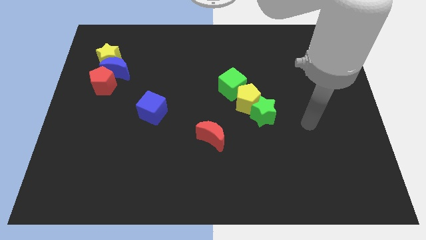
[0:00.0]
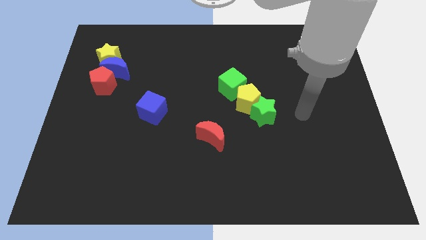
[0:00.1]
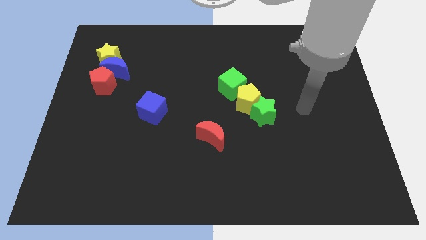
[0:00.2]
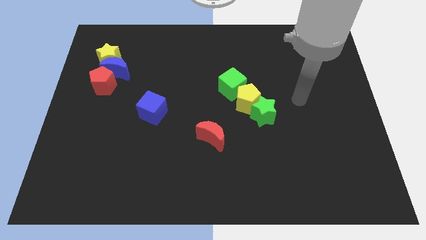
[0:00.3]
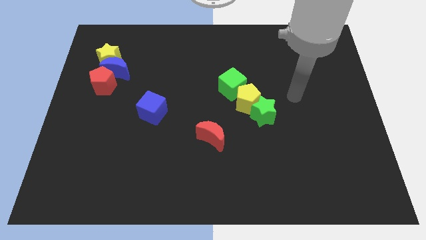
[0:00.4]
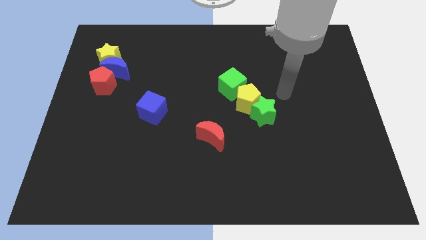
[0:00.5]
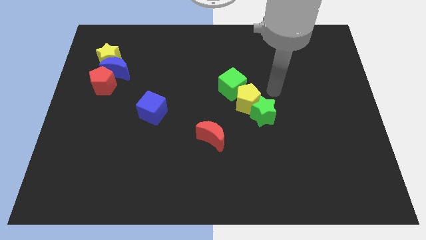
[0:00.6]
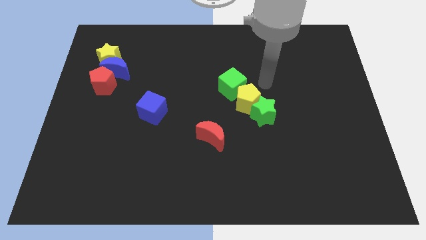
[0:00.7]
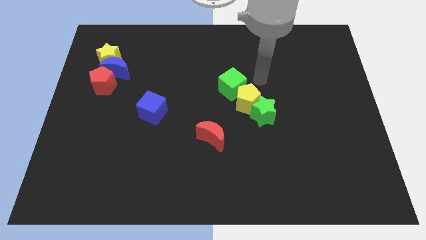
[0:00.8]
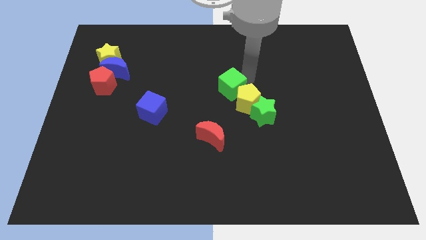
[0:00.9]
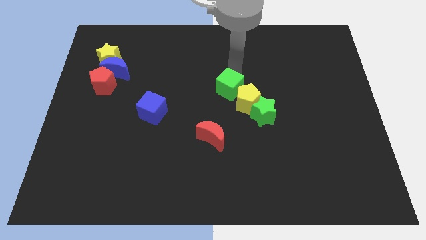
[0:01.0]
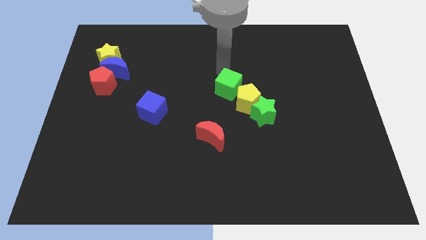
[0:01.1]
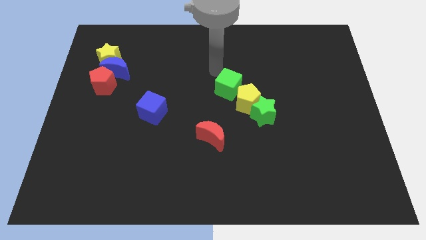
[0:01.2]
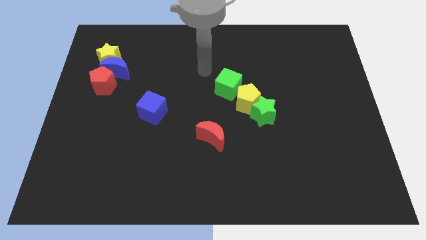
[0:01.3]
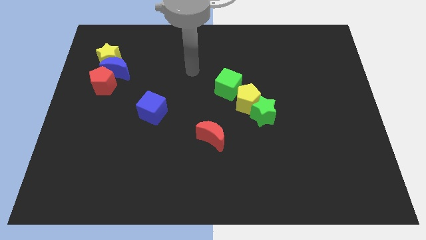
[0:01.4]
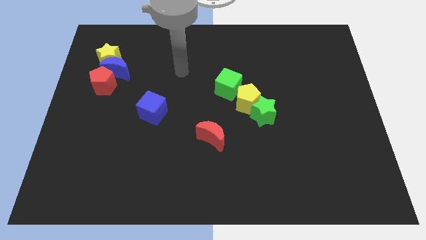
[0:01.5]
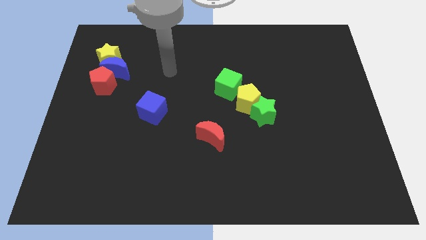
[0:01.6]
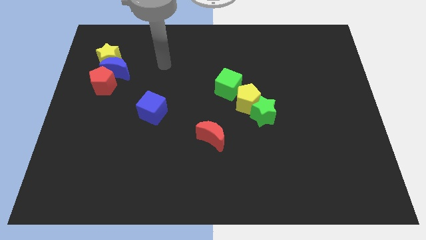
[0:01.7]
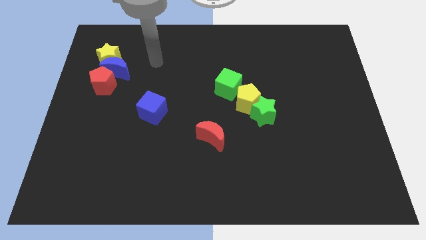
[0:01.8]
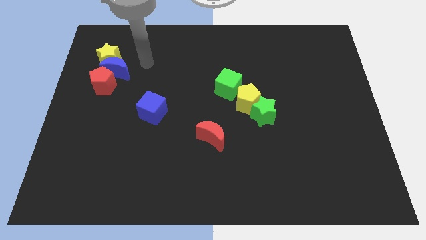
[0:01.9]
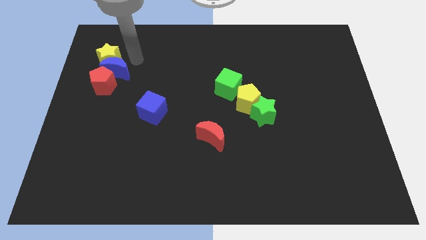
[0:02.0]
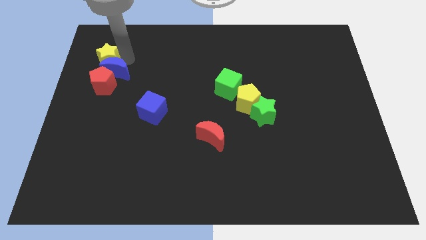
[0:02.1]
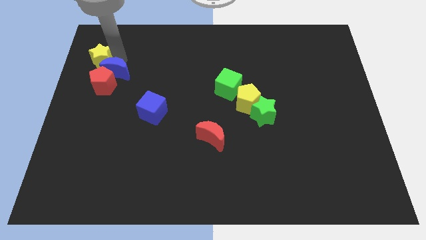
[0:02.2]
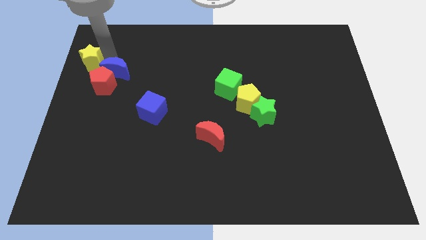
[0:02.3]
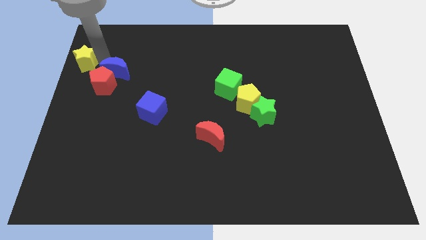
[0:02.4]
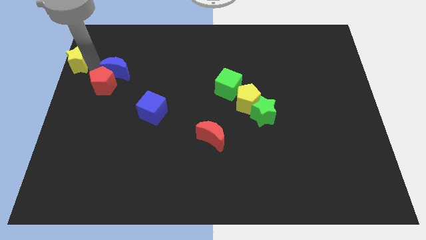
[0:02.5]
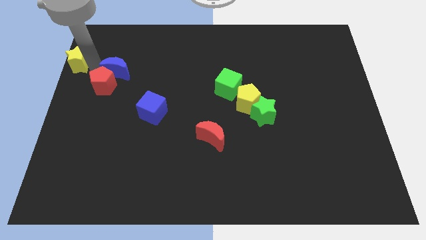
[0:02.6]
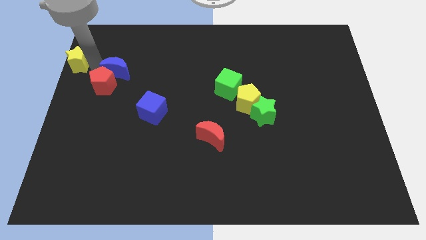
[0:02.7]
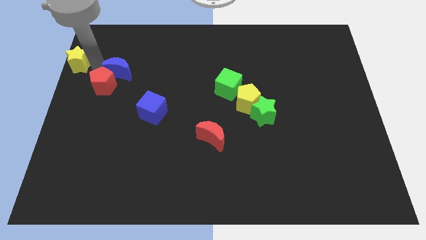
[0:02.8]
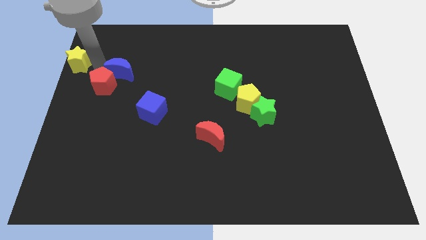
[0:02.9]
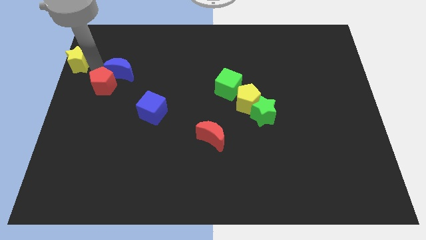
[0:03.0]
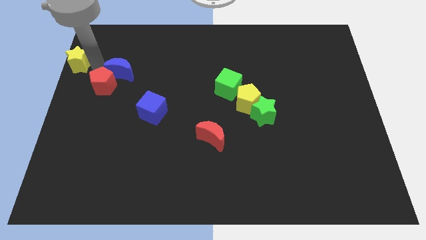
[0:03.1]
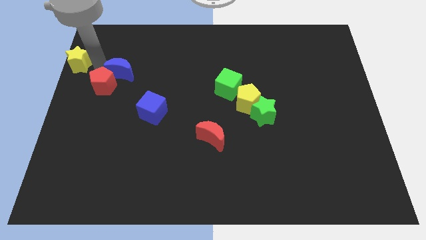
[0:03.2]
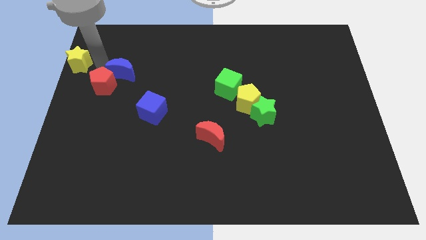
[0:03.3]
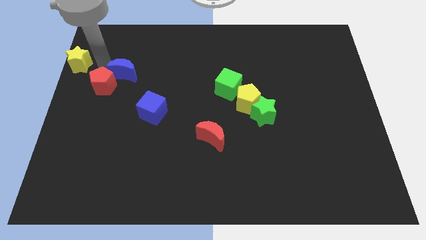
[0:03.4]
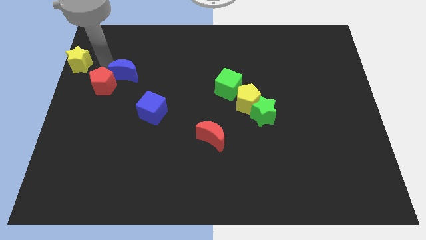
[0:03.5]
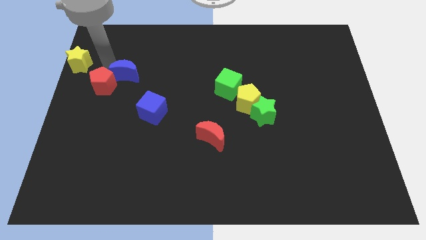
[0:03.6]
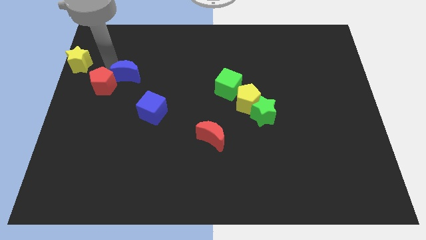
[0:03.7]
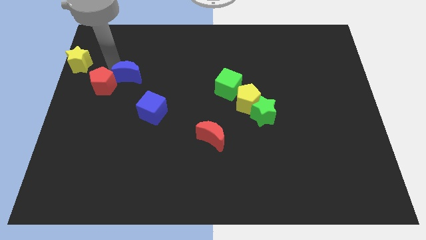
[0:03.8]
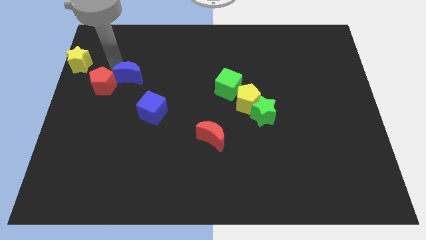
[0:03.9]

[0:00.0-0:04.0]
separate the blue moon from the yellow star and red pentagon

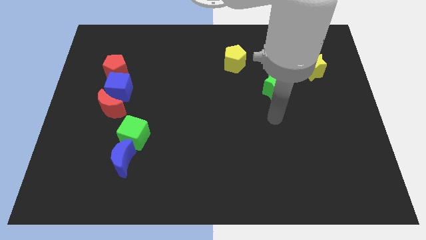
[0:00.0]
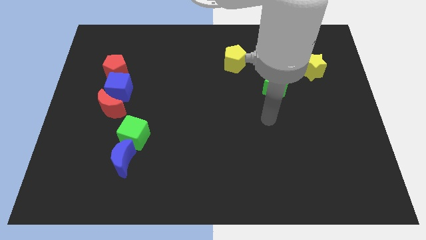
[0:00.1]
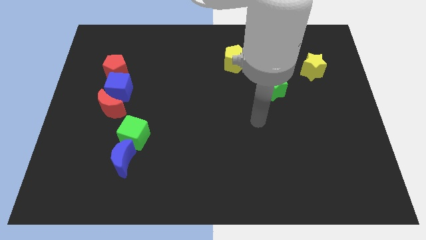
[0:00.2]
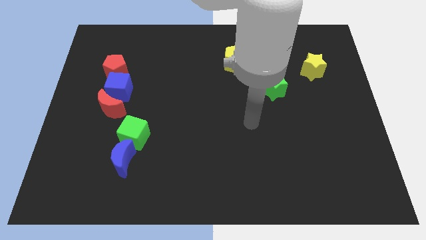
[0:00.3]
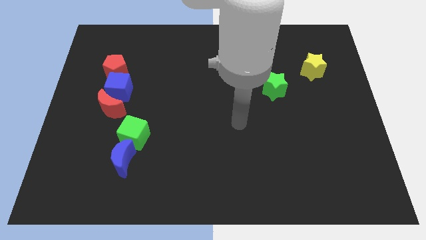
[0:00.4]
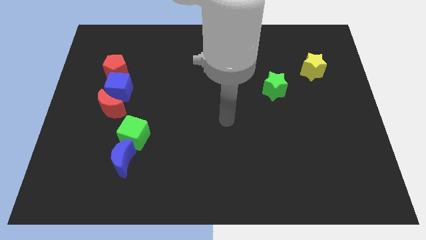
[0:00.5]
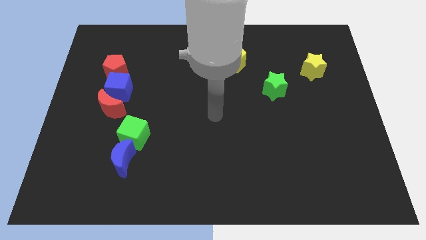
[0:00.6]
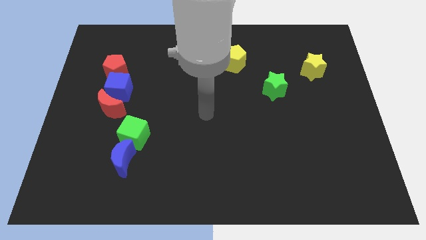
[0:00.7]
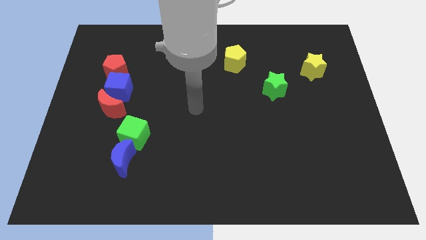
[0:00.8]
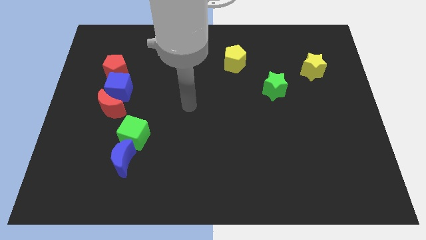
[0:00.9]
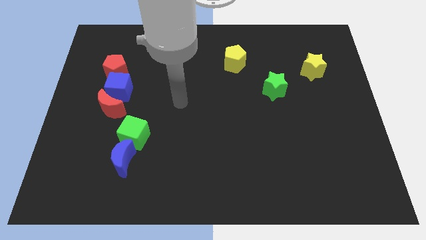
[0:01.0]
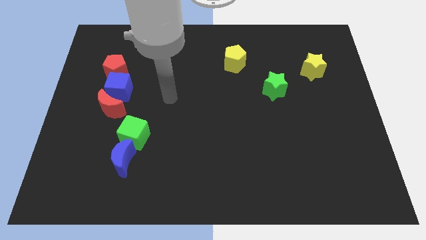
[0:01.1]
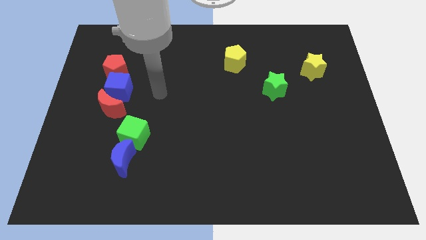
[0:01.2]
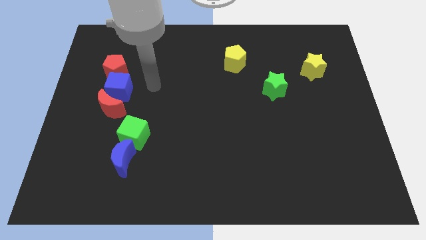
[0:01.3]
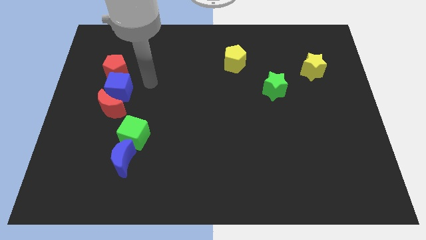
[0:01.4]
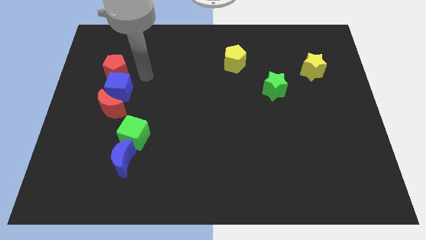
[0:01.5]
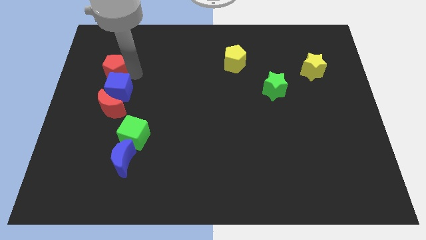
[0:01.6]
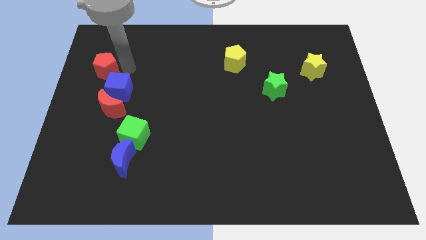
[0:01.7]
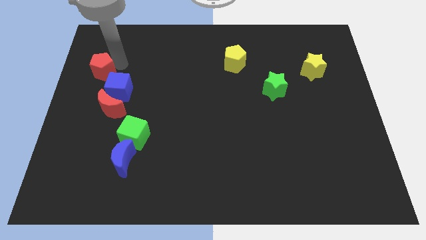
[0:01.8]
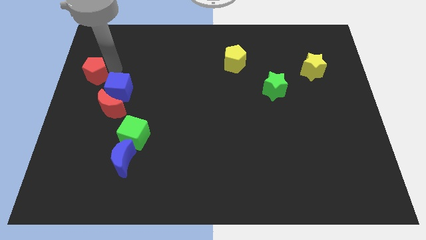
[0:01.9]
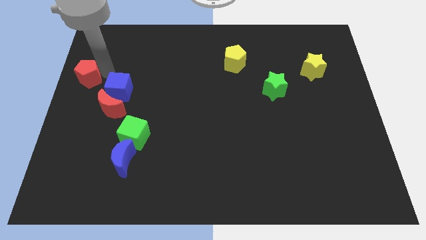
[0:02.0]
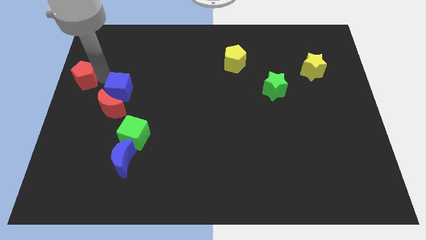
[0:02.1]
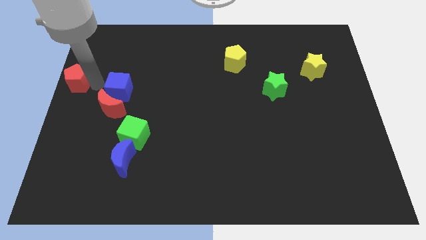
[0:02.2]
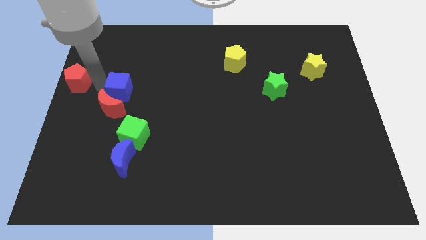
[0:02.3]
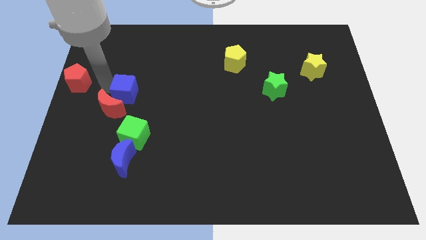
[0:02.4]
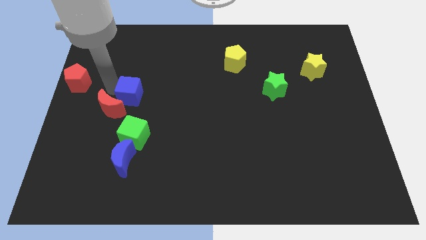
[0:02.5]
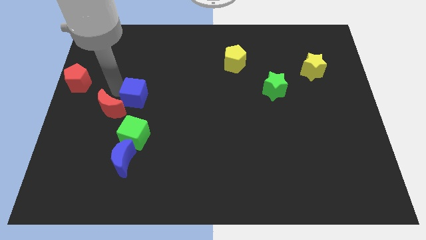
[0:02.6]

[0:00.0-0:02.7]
move the blue cube away from the red moon and red pentagon

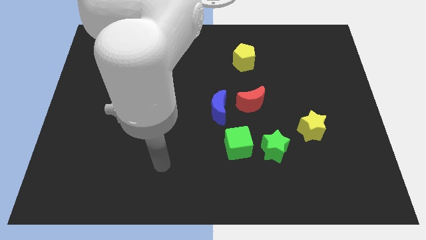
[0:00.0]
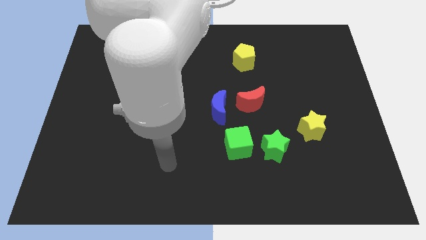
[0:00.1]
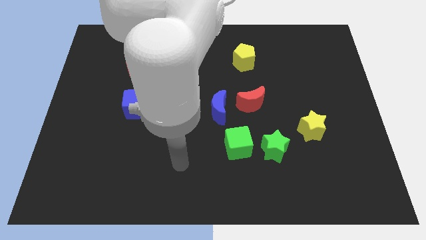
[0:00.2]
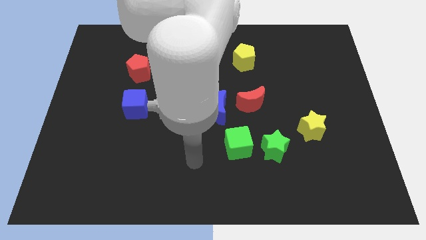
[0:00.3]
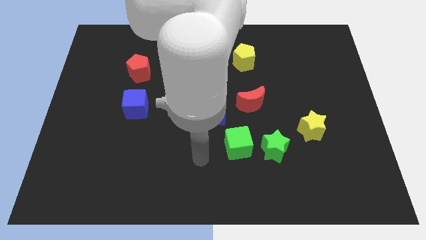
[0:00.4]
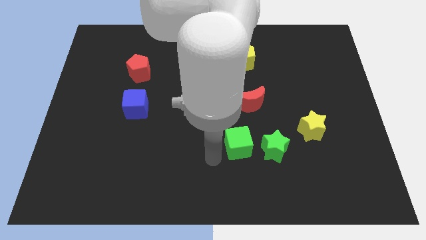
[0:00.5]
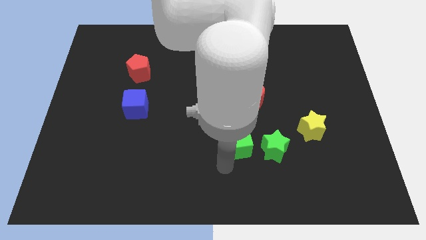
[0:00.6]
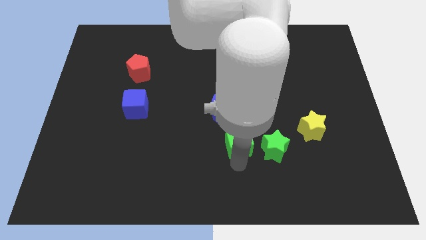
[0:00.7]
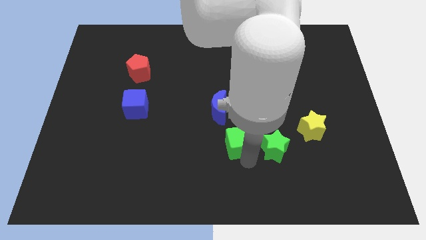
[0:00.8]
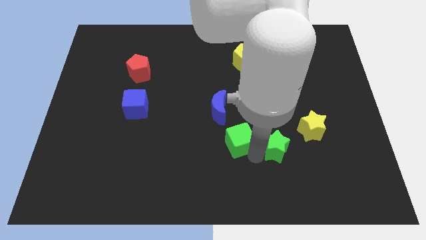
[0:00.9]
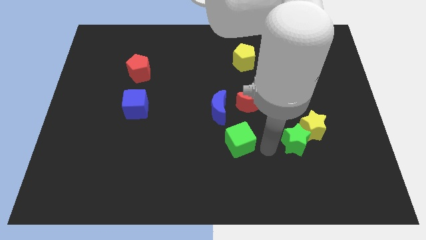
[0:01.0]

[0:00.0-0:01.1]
move the green cube away from the green star

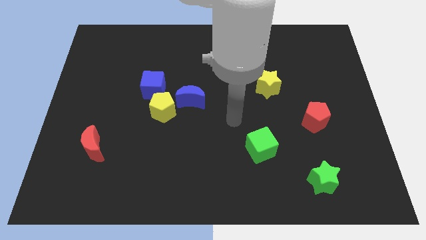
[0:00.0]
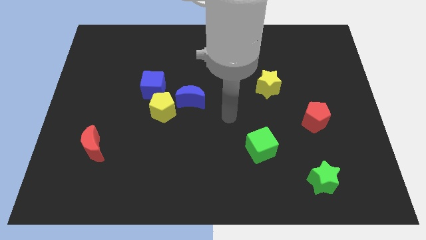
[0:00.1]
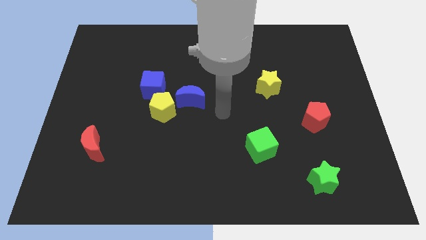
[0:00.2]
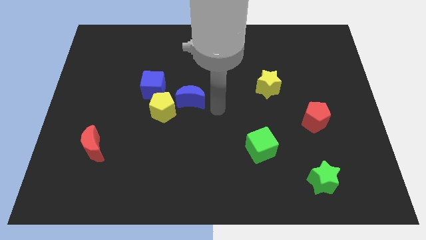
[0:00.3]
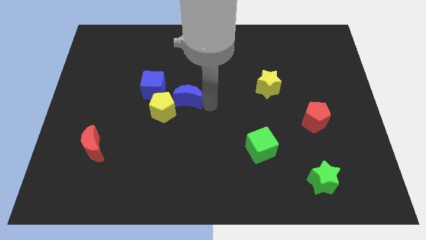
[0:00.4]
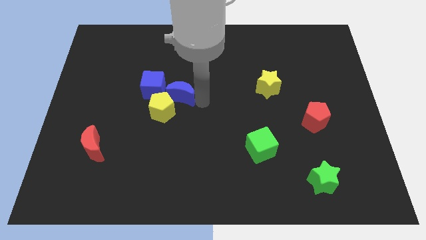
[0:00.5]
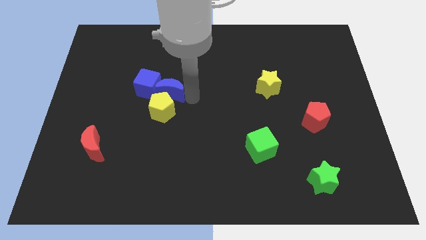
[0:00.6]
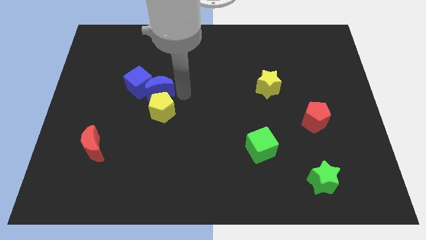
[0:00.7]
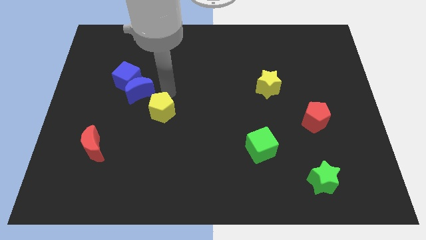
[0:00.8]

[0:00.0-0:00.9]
pull the yellow pentagon apart from the blue moon and blue cube

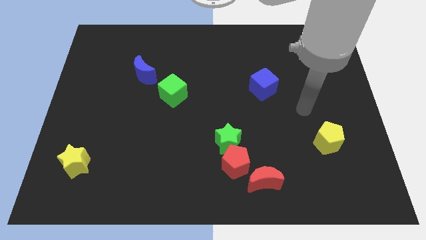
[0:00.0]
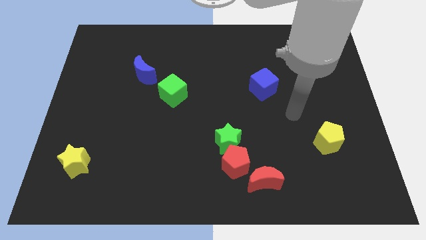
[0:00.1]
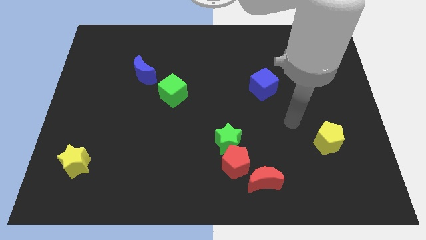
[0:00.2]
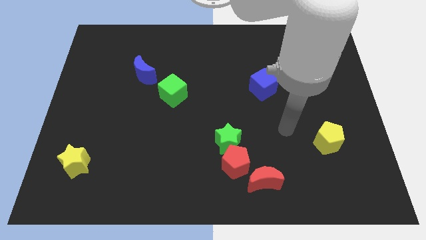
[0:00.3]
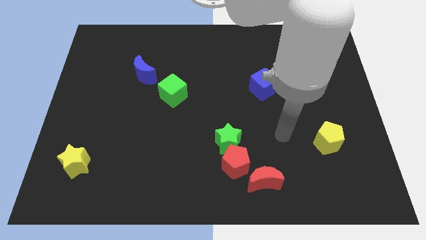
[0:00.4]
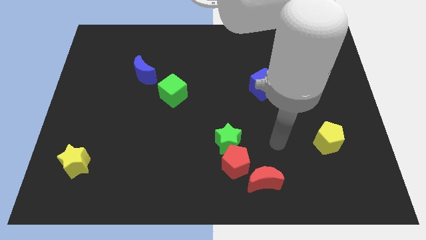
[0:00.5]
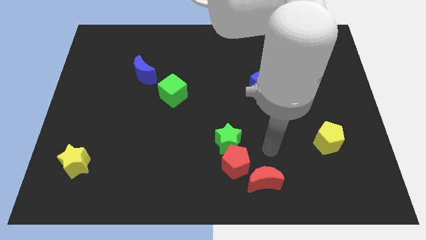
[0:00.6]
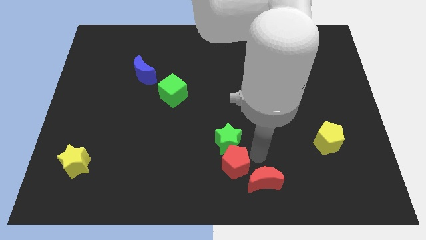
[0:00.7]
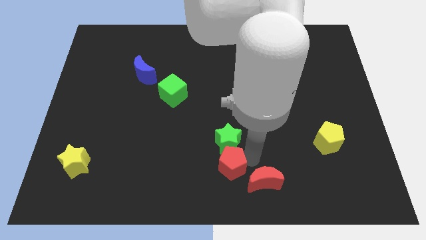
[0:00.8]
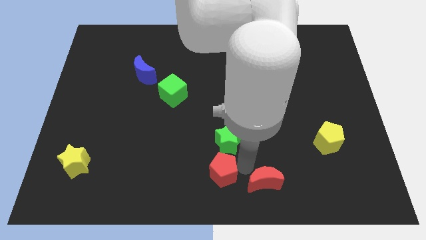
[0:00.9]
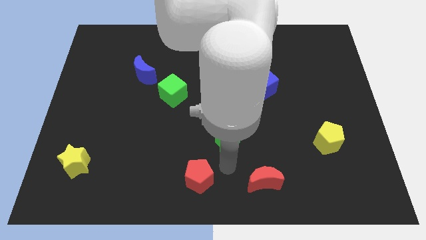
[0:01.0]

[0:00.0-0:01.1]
separate the green star from the red pentagon
